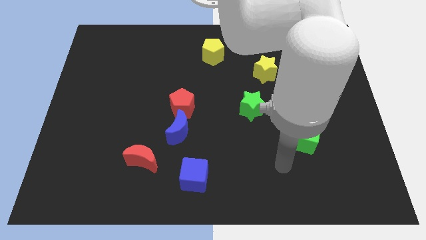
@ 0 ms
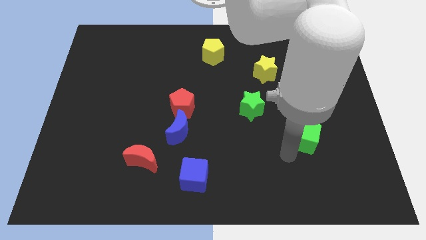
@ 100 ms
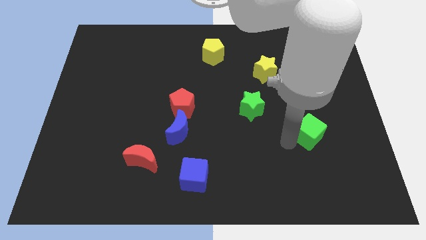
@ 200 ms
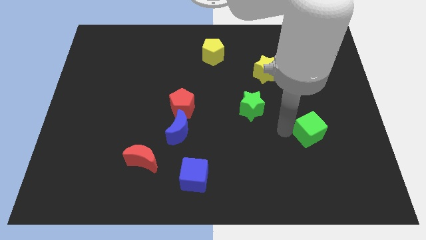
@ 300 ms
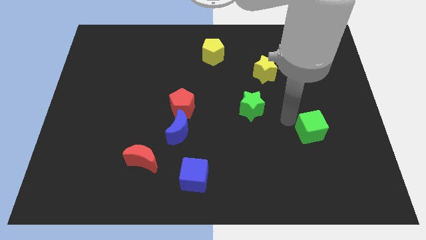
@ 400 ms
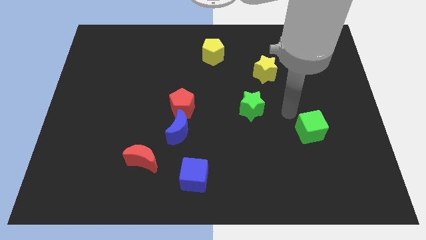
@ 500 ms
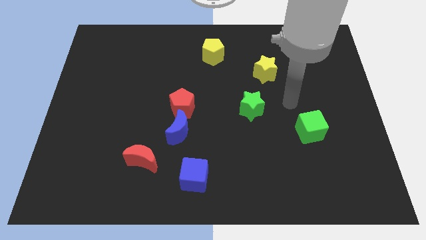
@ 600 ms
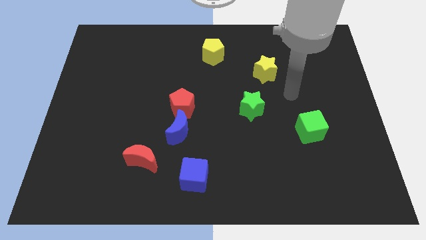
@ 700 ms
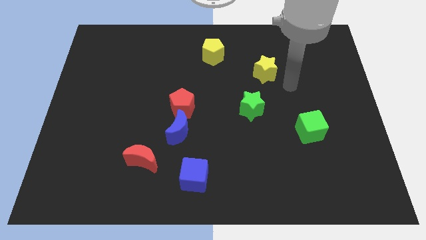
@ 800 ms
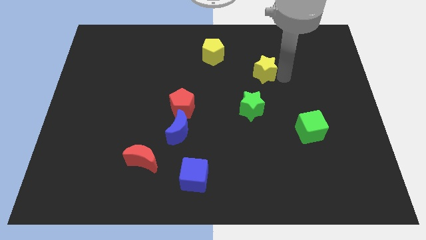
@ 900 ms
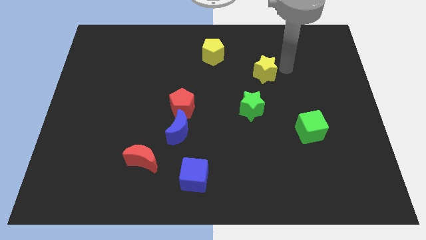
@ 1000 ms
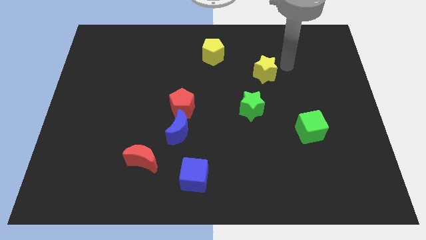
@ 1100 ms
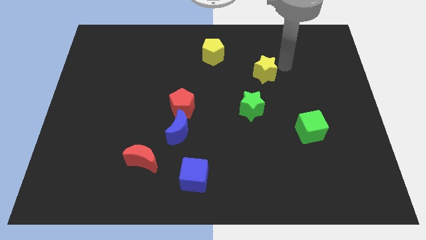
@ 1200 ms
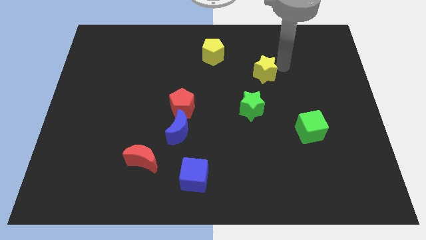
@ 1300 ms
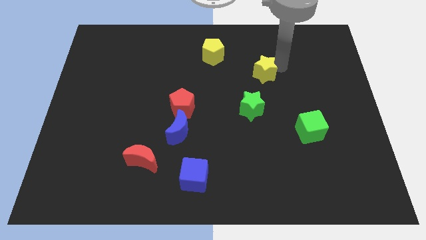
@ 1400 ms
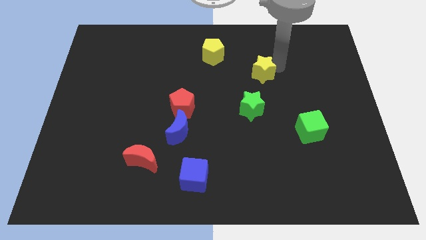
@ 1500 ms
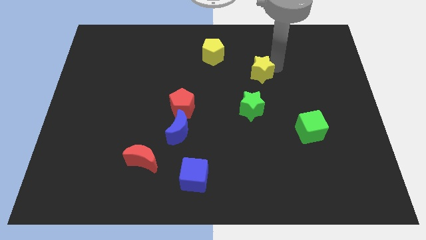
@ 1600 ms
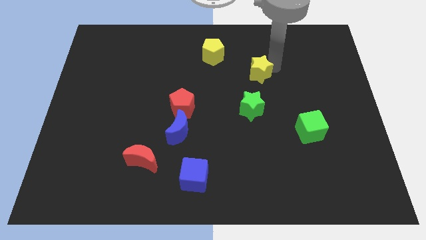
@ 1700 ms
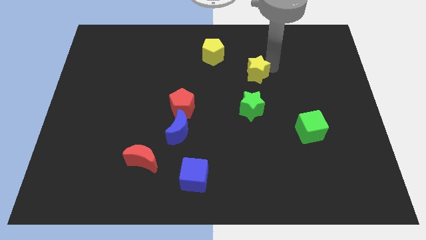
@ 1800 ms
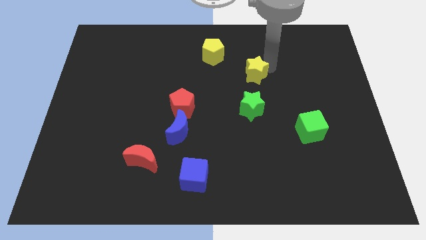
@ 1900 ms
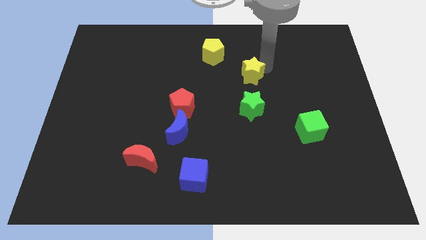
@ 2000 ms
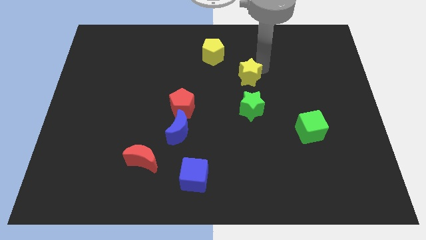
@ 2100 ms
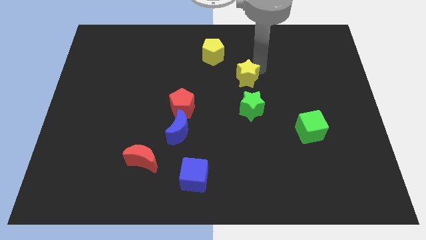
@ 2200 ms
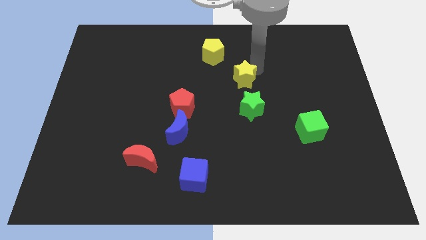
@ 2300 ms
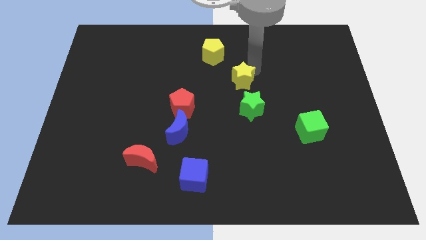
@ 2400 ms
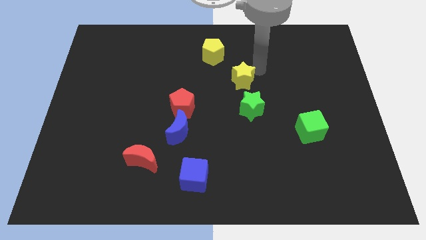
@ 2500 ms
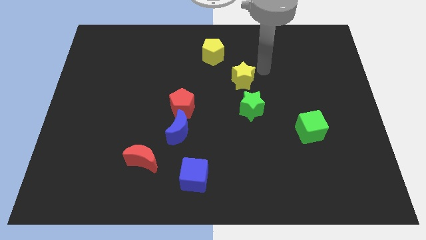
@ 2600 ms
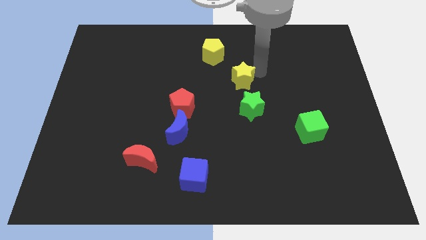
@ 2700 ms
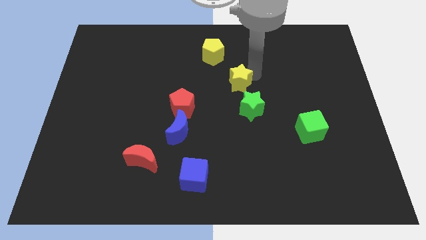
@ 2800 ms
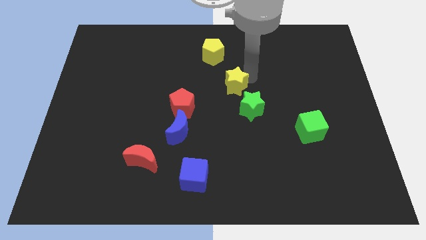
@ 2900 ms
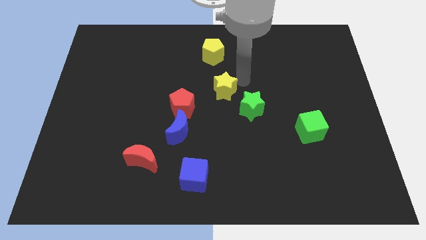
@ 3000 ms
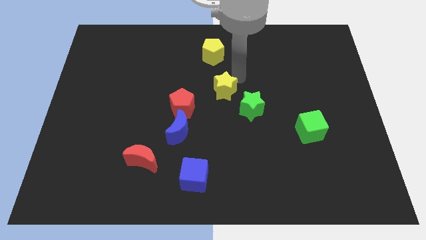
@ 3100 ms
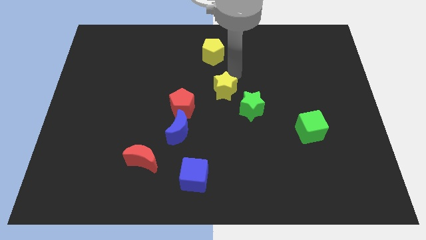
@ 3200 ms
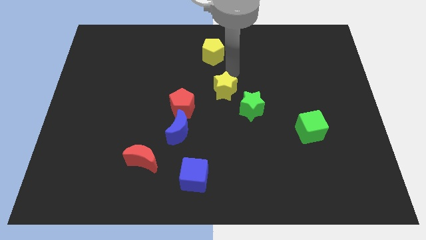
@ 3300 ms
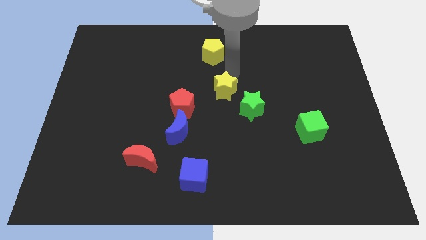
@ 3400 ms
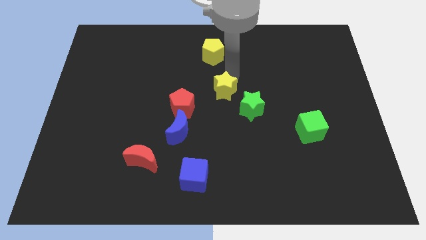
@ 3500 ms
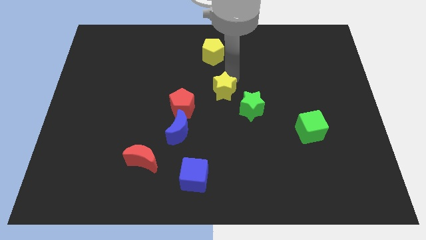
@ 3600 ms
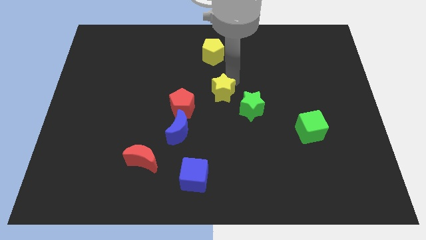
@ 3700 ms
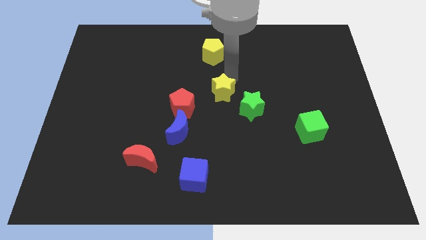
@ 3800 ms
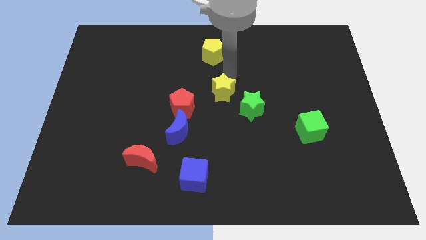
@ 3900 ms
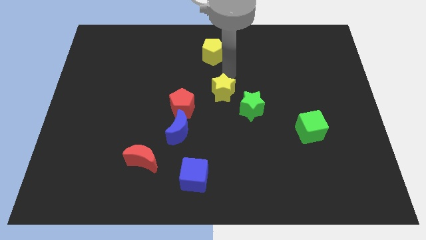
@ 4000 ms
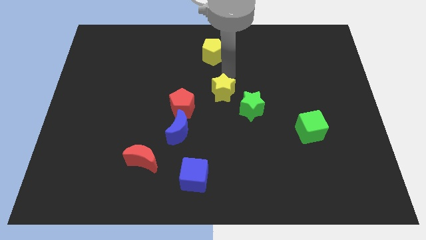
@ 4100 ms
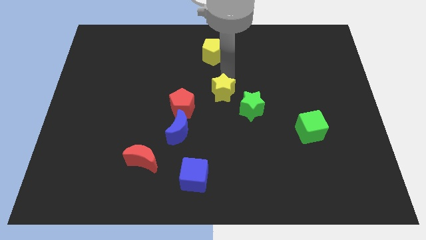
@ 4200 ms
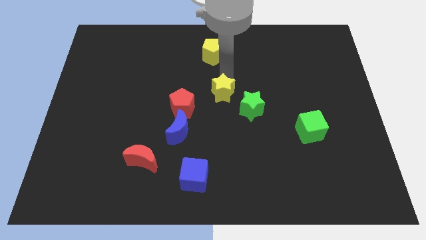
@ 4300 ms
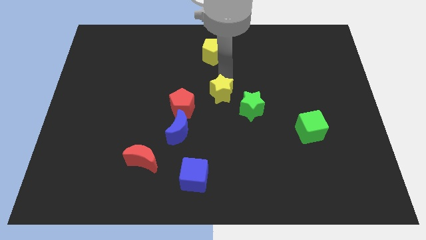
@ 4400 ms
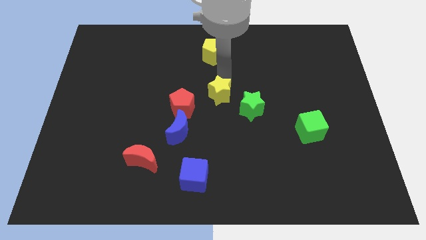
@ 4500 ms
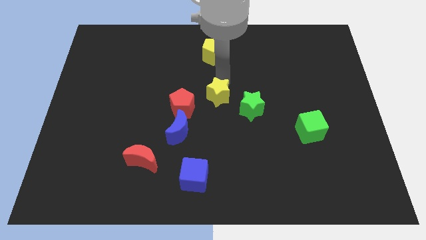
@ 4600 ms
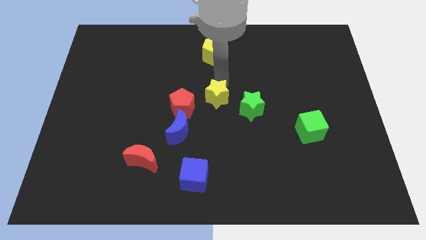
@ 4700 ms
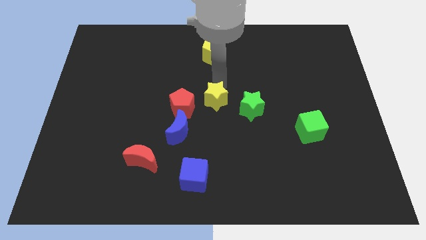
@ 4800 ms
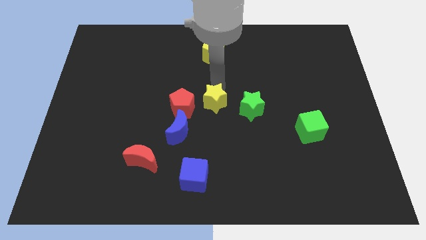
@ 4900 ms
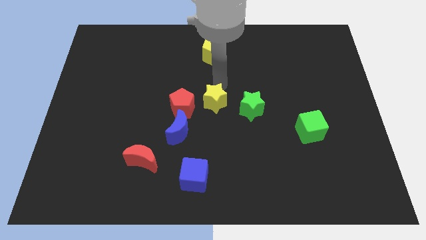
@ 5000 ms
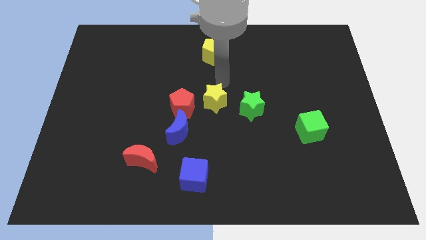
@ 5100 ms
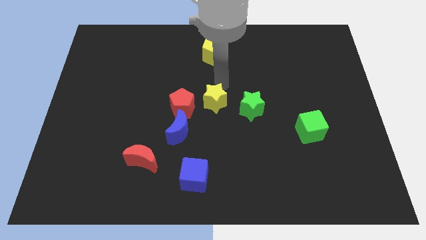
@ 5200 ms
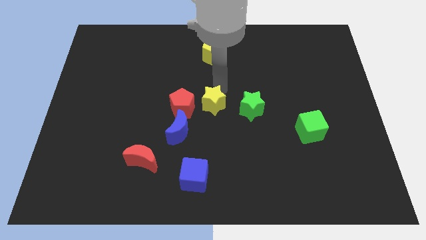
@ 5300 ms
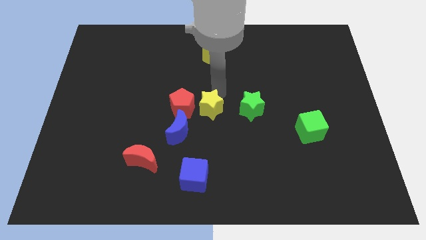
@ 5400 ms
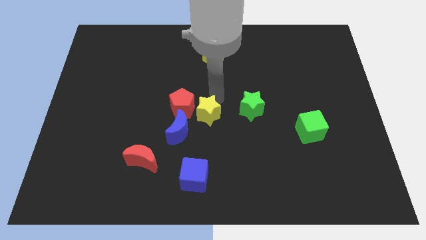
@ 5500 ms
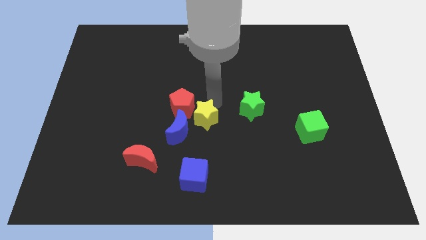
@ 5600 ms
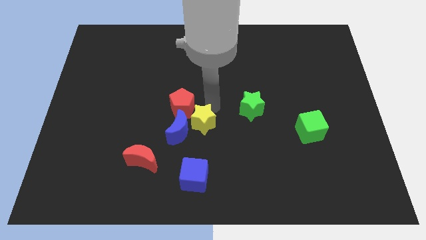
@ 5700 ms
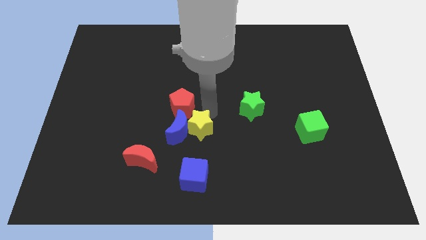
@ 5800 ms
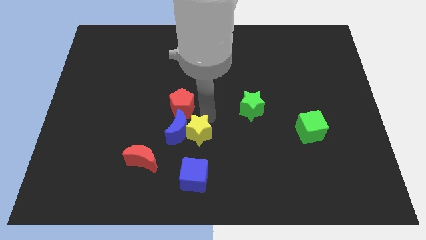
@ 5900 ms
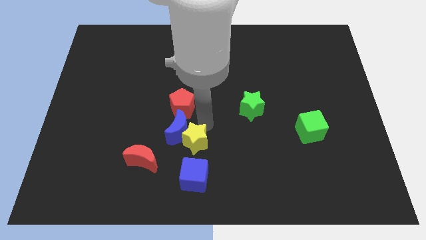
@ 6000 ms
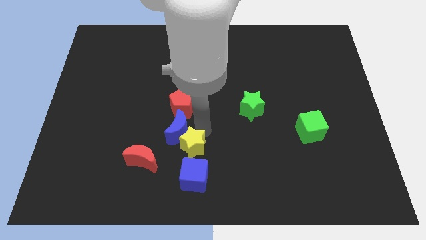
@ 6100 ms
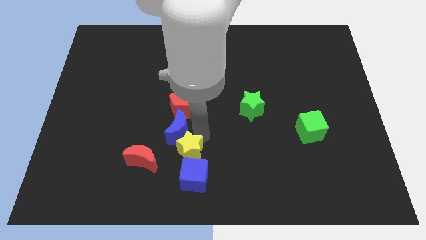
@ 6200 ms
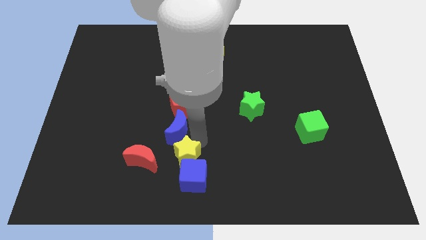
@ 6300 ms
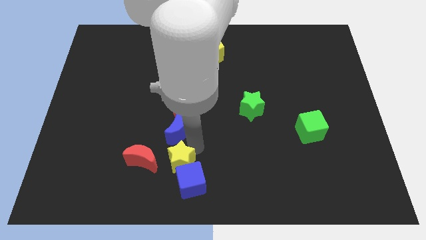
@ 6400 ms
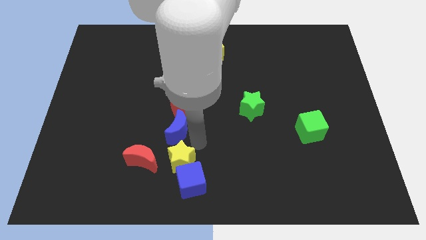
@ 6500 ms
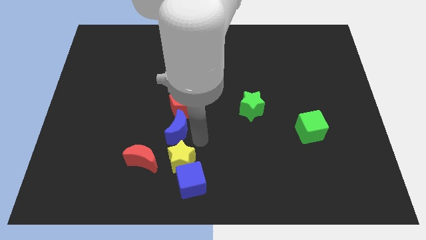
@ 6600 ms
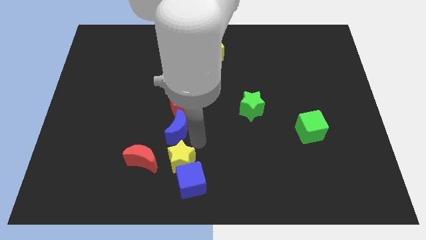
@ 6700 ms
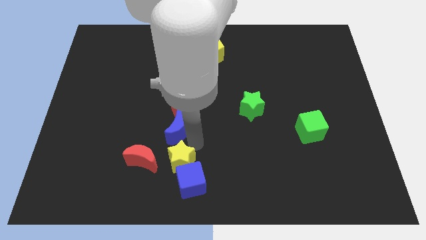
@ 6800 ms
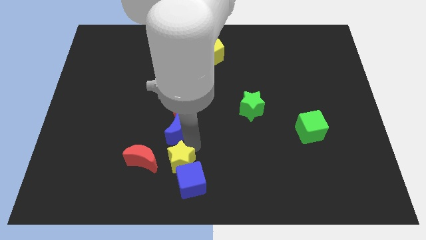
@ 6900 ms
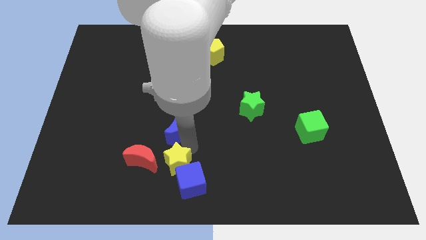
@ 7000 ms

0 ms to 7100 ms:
put the yellow star diagonally down and to the right of the red moon

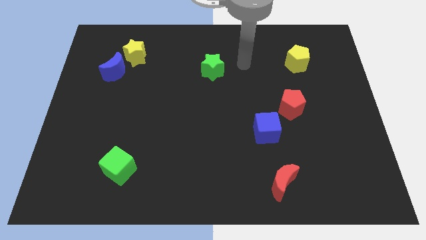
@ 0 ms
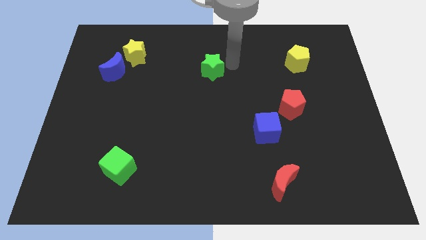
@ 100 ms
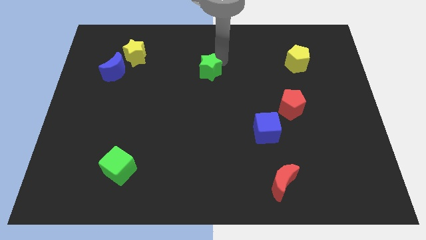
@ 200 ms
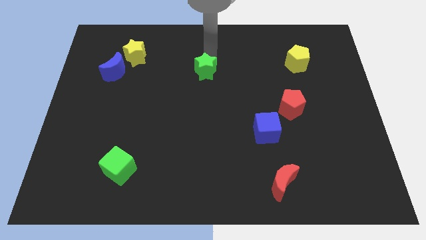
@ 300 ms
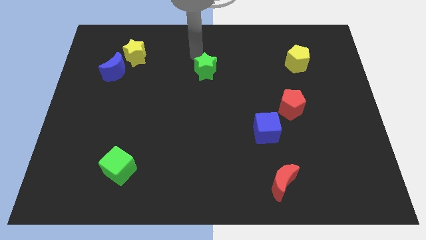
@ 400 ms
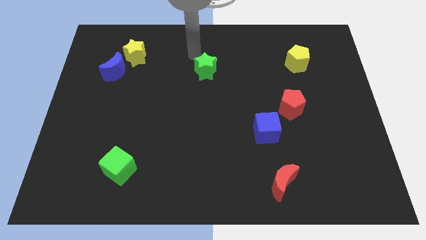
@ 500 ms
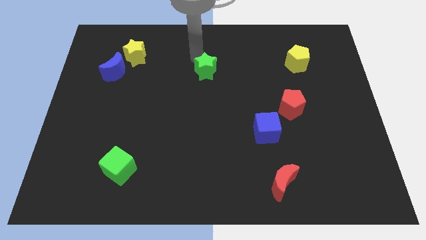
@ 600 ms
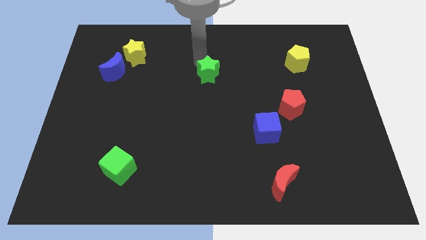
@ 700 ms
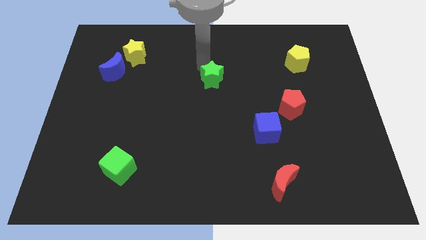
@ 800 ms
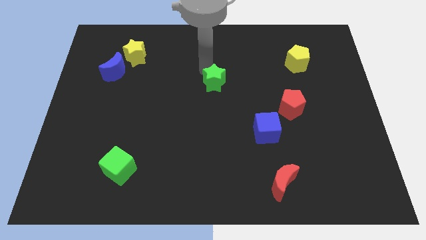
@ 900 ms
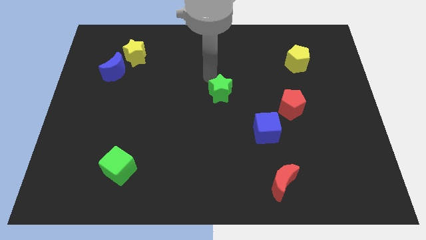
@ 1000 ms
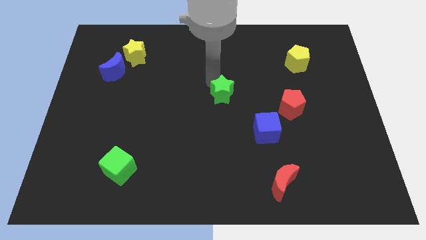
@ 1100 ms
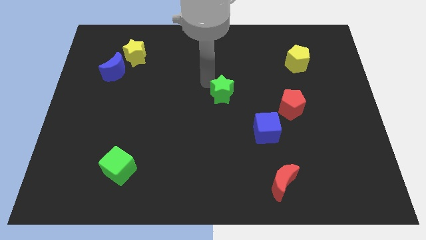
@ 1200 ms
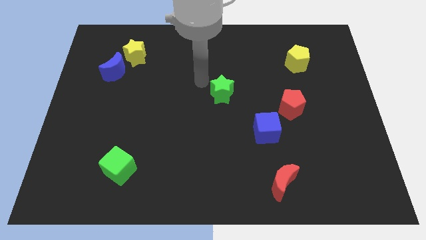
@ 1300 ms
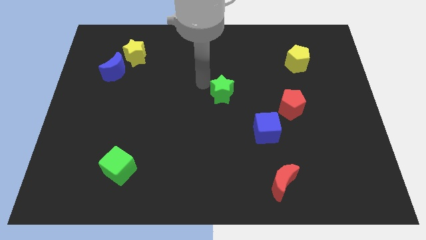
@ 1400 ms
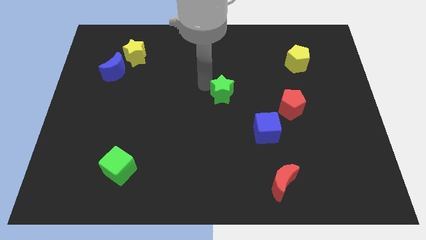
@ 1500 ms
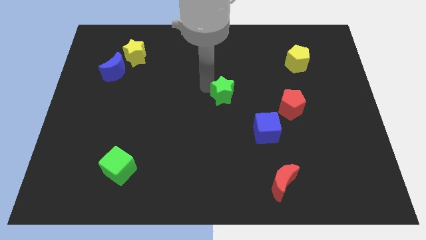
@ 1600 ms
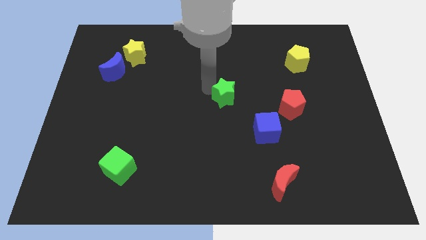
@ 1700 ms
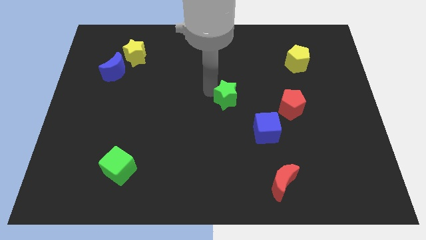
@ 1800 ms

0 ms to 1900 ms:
put the green star just left of the red pentagon
